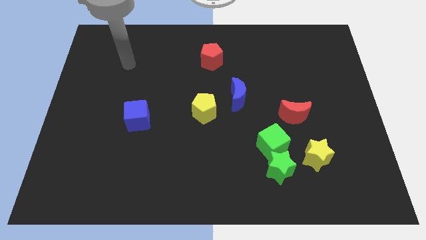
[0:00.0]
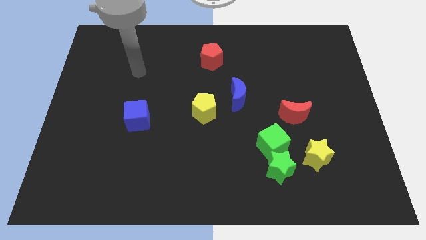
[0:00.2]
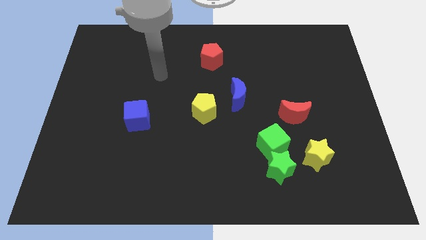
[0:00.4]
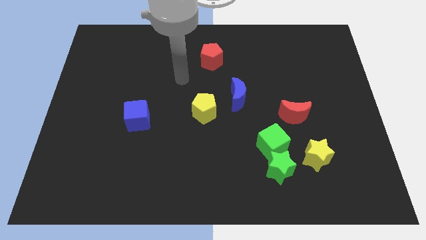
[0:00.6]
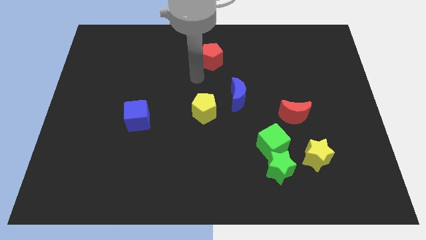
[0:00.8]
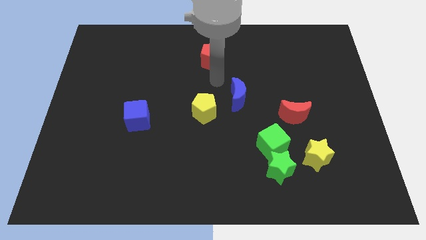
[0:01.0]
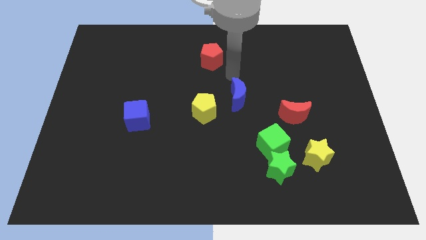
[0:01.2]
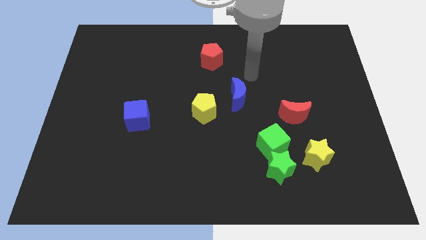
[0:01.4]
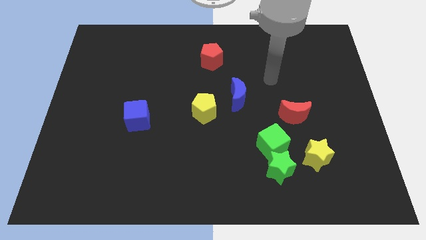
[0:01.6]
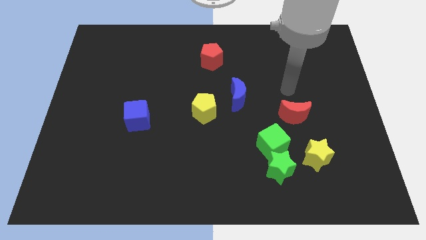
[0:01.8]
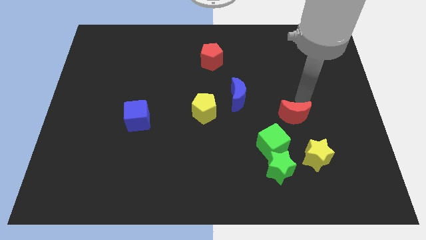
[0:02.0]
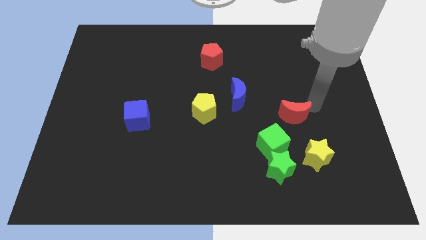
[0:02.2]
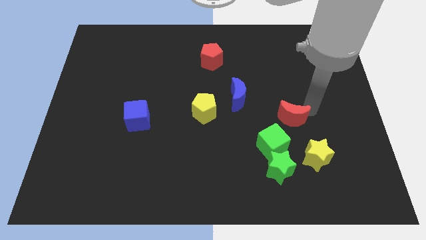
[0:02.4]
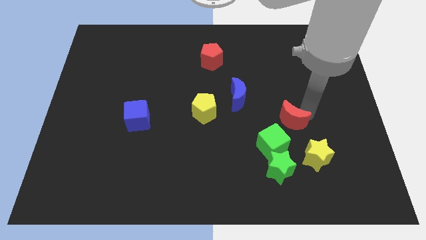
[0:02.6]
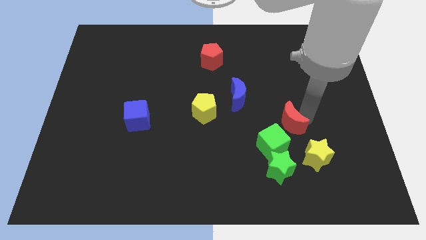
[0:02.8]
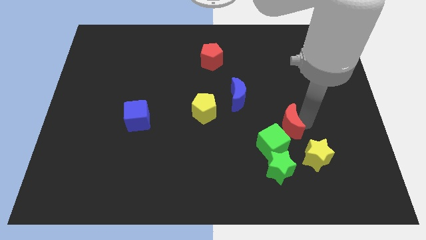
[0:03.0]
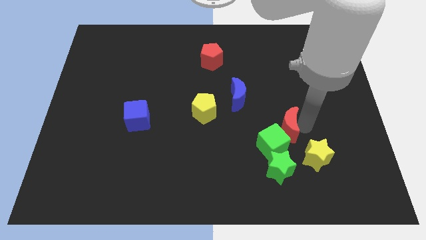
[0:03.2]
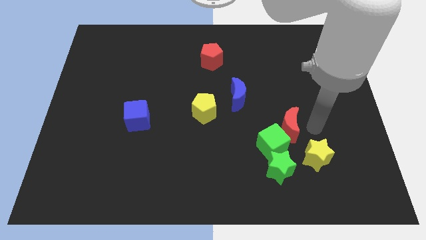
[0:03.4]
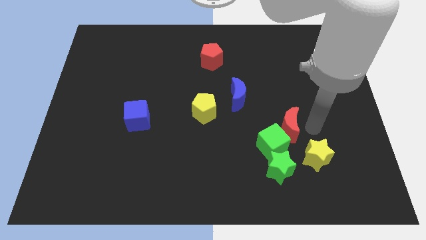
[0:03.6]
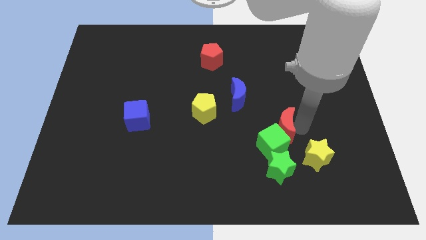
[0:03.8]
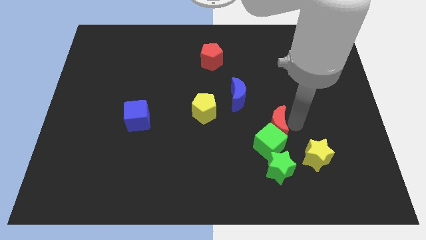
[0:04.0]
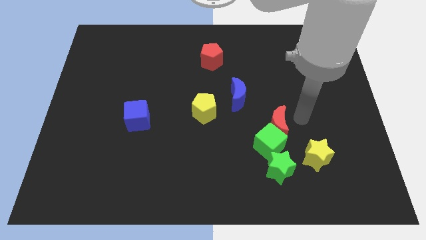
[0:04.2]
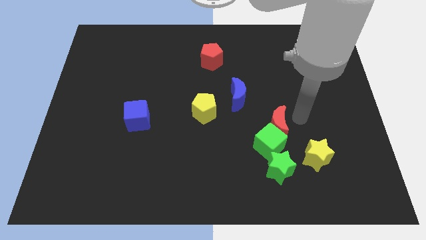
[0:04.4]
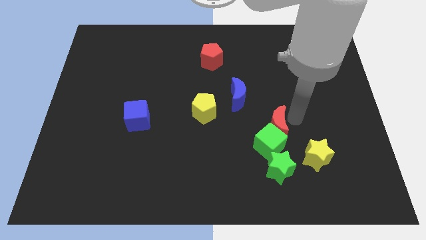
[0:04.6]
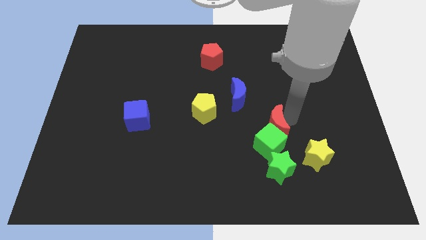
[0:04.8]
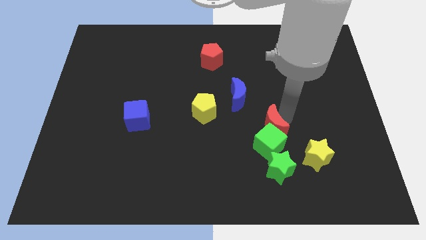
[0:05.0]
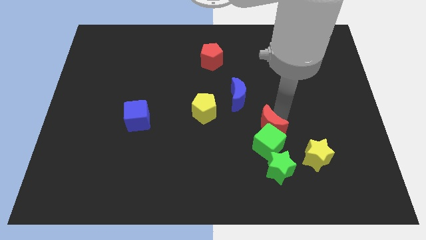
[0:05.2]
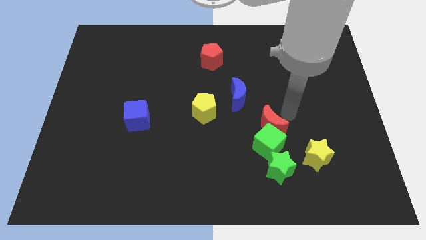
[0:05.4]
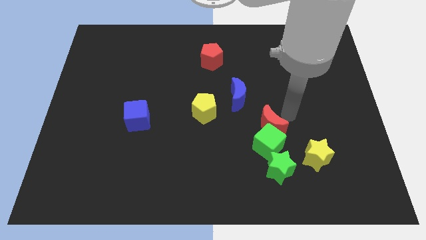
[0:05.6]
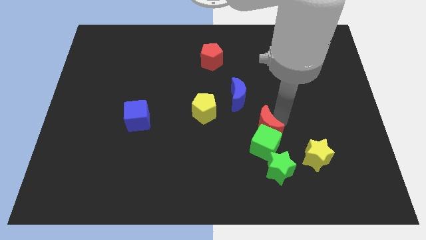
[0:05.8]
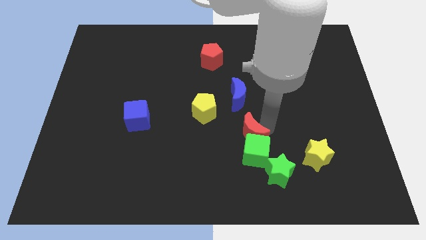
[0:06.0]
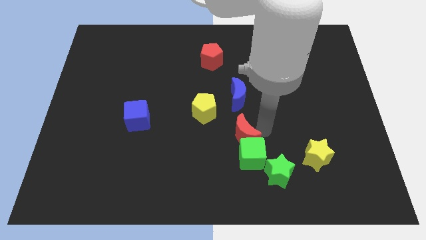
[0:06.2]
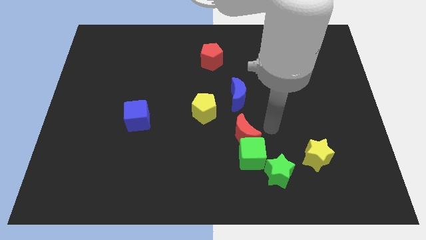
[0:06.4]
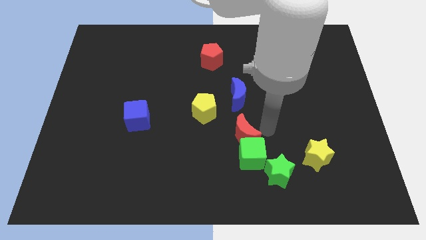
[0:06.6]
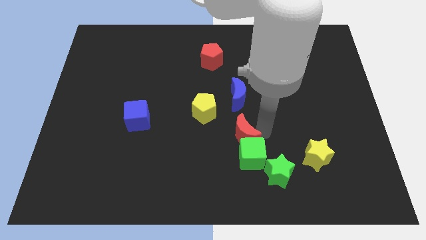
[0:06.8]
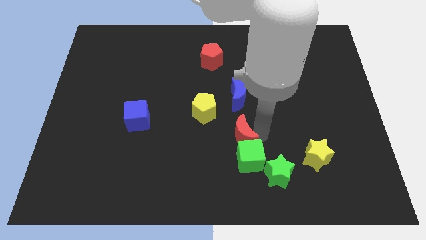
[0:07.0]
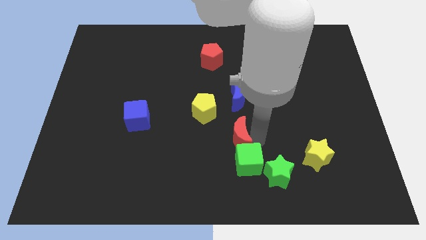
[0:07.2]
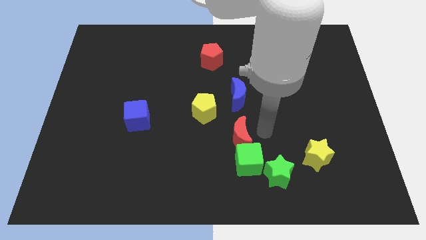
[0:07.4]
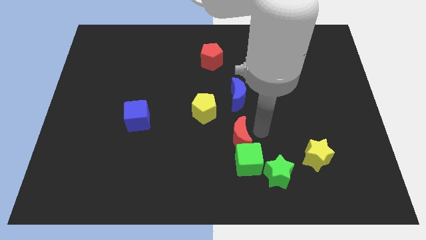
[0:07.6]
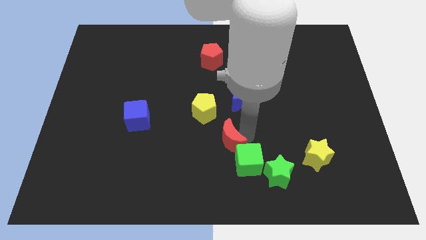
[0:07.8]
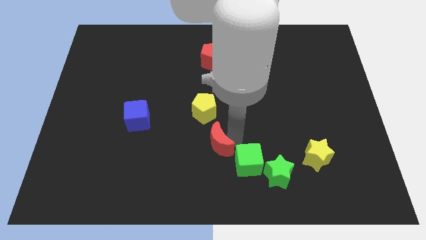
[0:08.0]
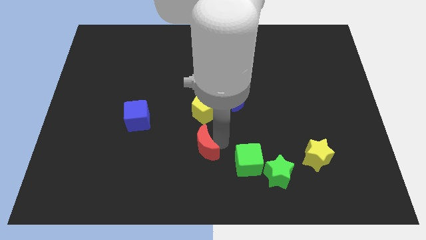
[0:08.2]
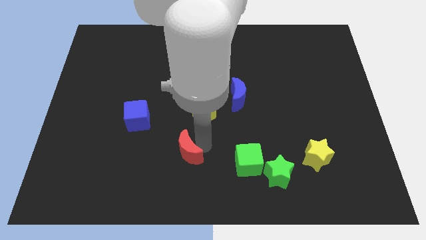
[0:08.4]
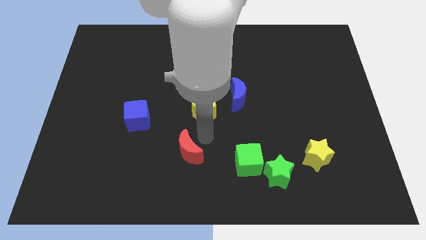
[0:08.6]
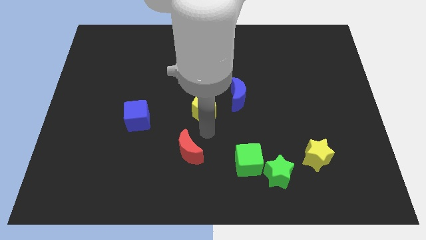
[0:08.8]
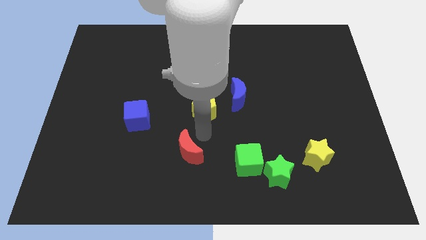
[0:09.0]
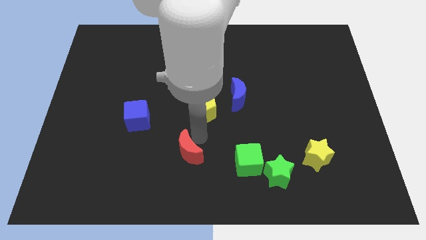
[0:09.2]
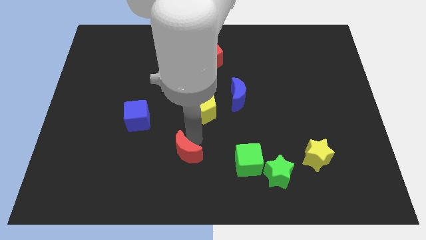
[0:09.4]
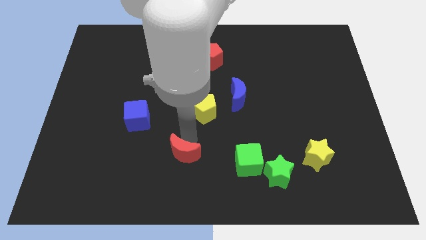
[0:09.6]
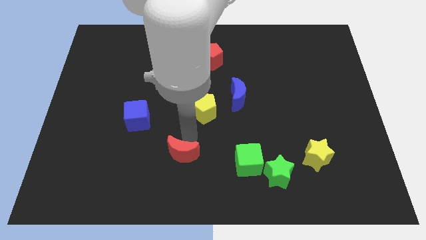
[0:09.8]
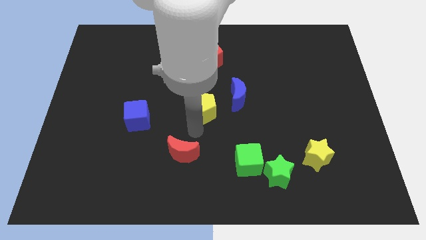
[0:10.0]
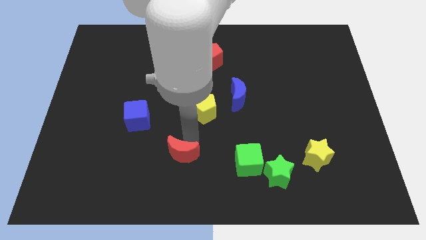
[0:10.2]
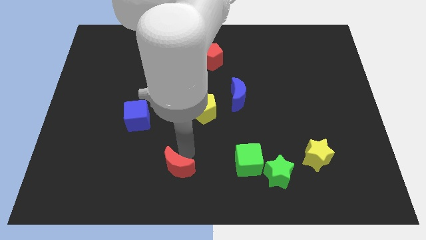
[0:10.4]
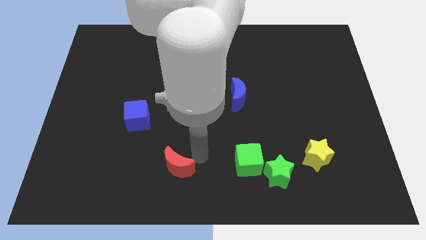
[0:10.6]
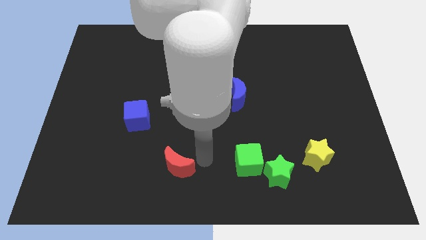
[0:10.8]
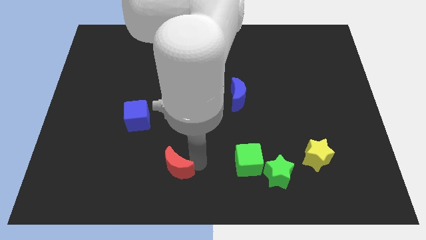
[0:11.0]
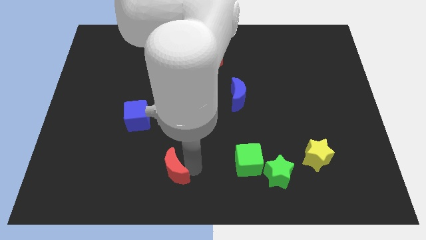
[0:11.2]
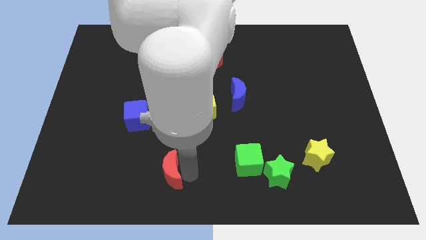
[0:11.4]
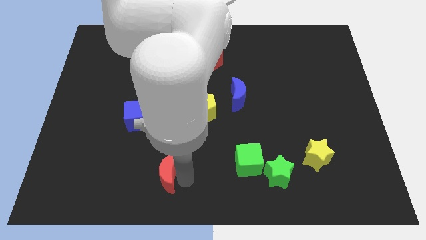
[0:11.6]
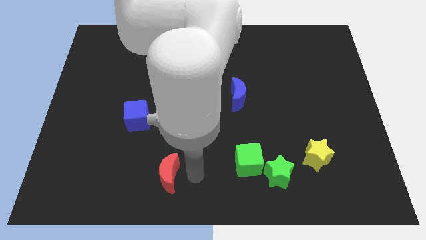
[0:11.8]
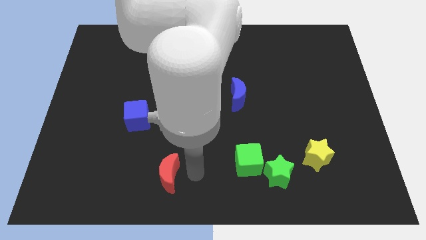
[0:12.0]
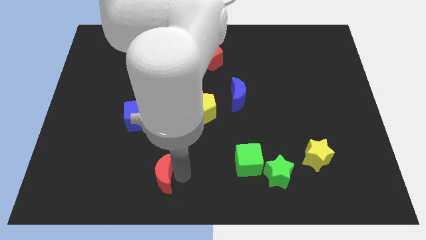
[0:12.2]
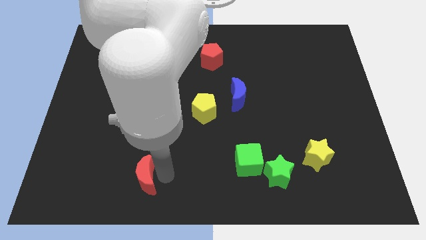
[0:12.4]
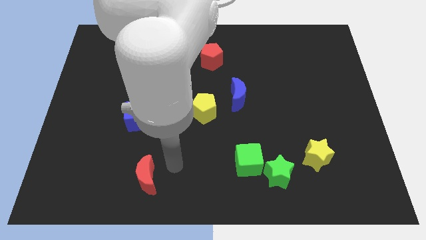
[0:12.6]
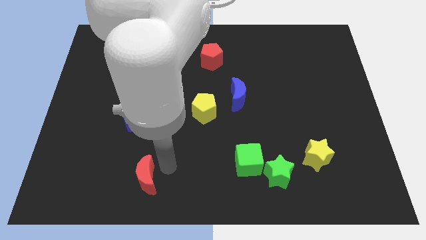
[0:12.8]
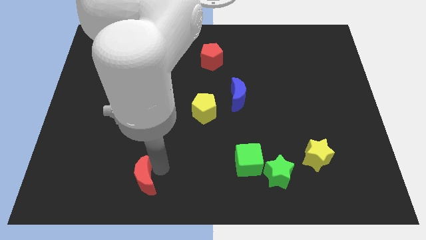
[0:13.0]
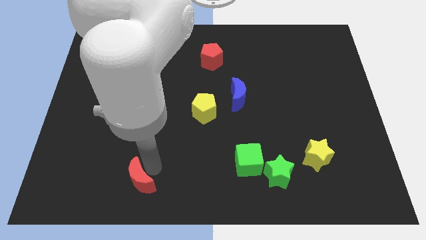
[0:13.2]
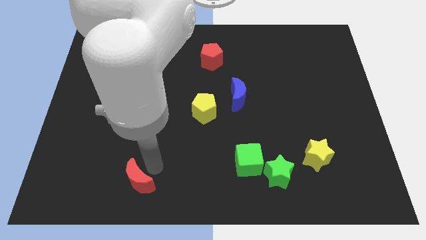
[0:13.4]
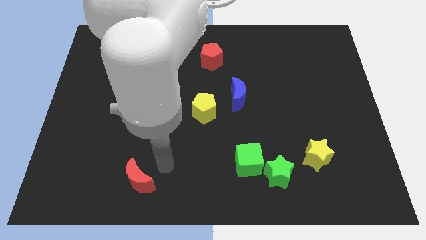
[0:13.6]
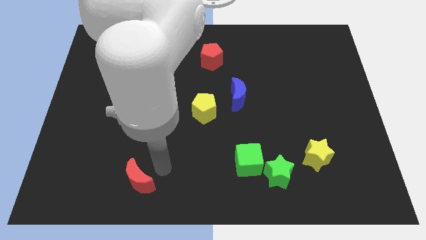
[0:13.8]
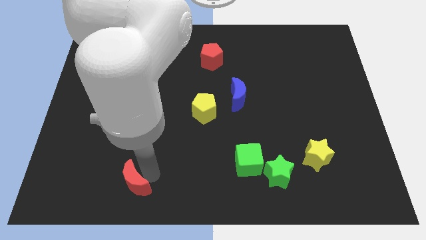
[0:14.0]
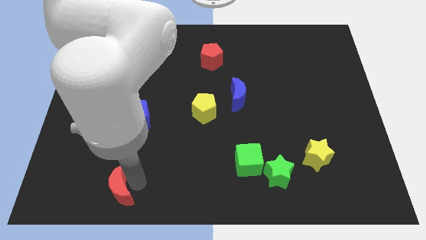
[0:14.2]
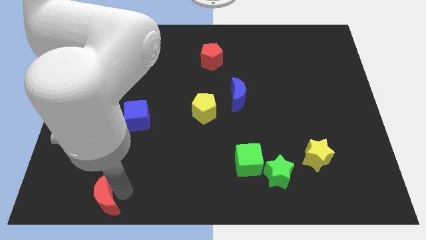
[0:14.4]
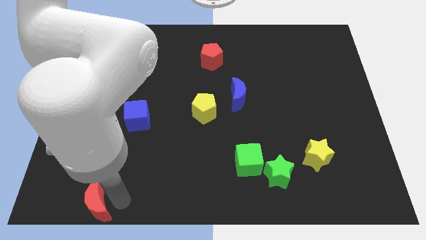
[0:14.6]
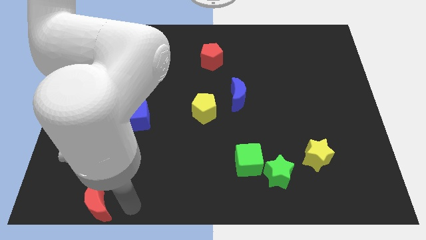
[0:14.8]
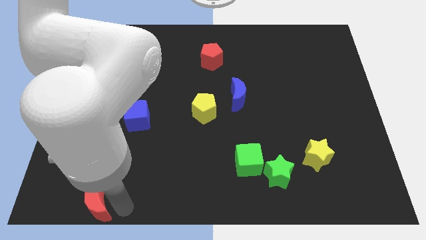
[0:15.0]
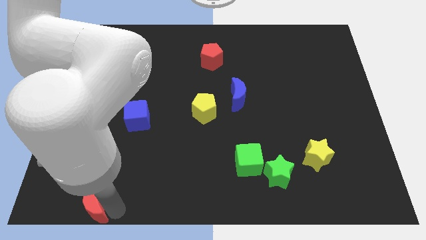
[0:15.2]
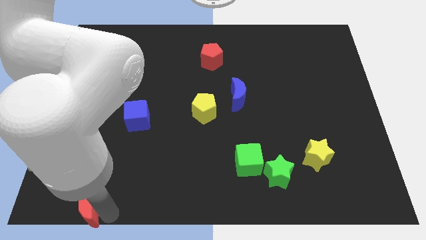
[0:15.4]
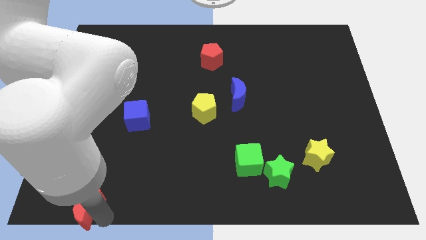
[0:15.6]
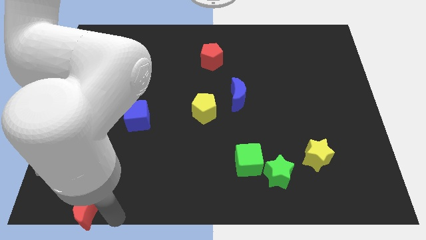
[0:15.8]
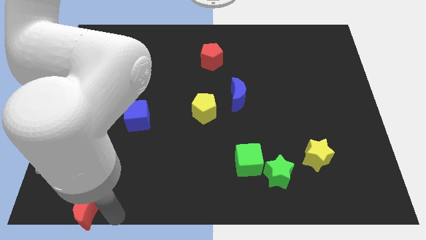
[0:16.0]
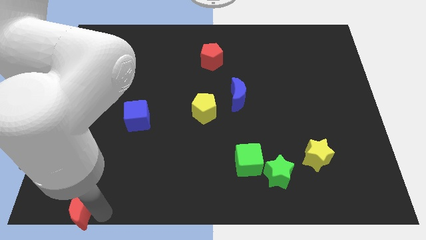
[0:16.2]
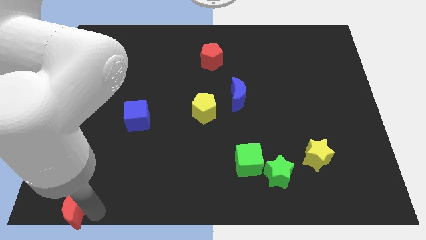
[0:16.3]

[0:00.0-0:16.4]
move the red moon to the bottom left
